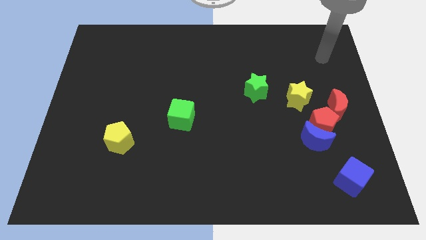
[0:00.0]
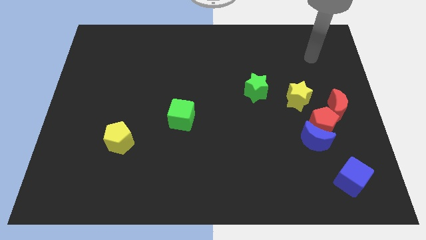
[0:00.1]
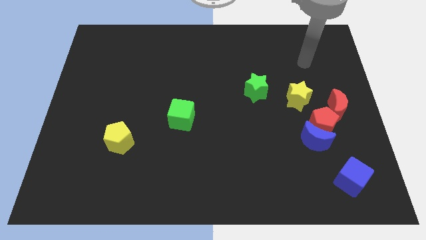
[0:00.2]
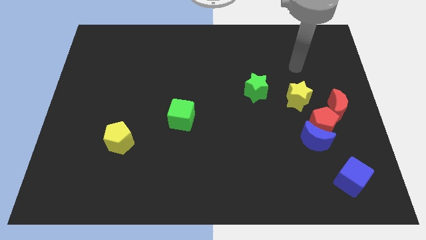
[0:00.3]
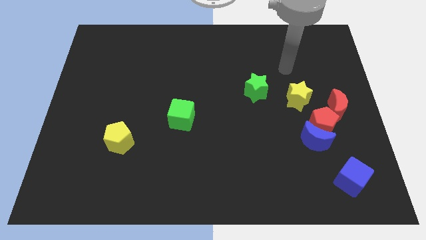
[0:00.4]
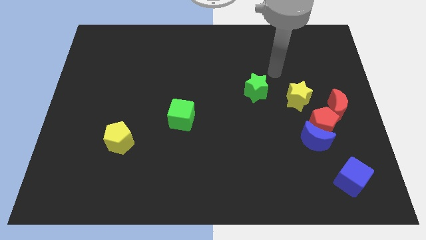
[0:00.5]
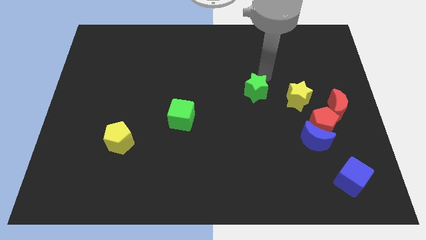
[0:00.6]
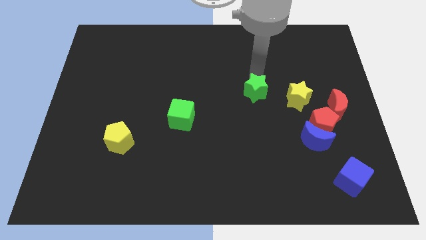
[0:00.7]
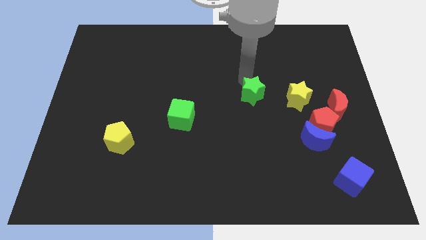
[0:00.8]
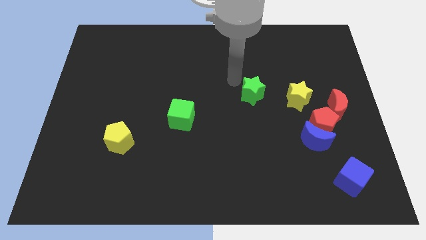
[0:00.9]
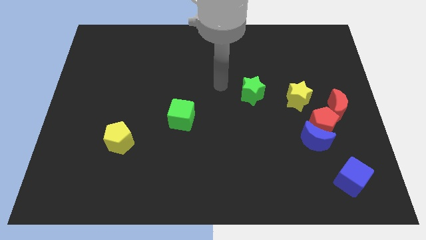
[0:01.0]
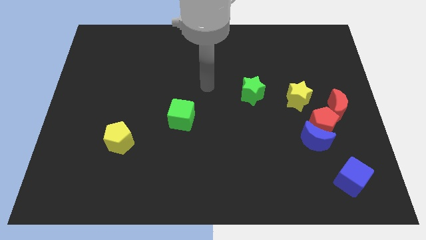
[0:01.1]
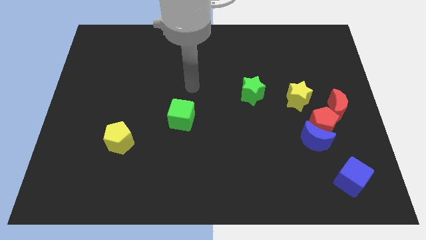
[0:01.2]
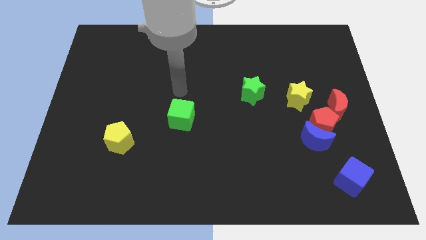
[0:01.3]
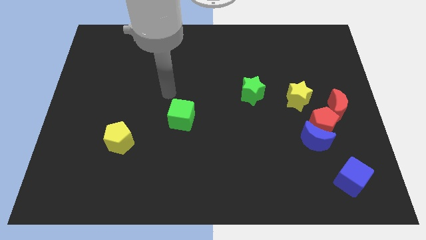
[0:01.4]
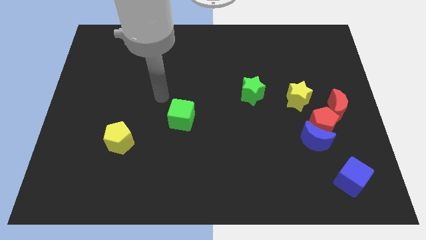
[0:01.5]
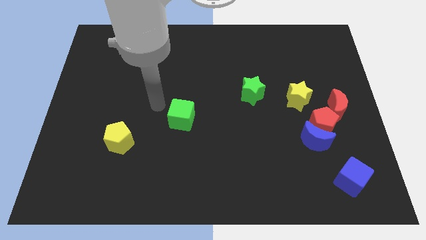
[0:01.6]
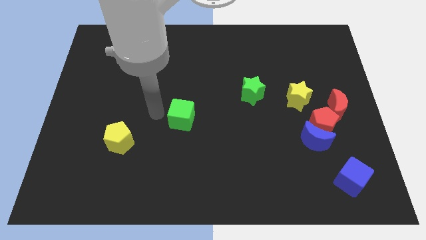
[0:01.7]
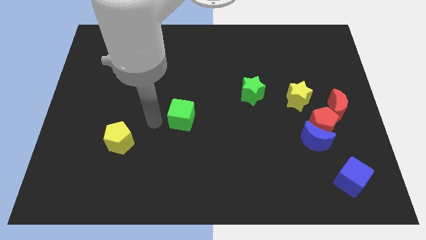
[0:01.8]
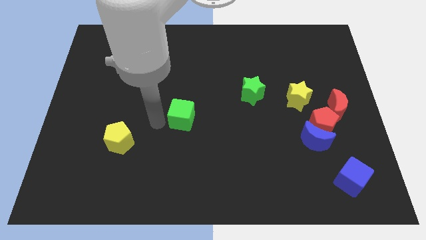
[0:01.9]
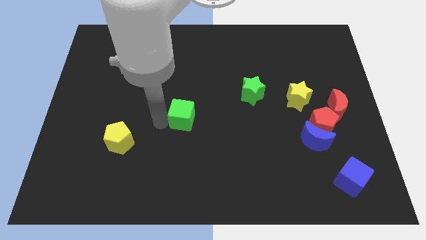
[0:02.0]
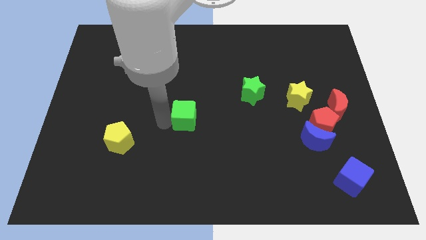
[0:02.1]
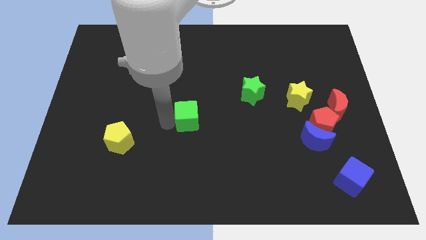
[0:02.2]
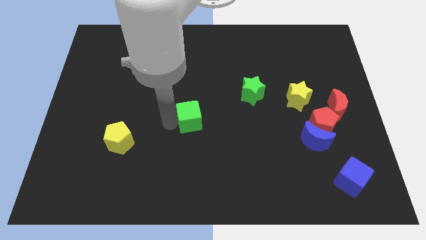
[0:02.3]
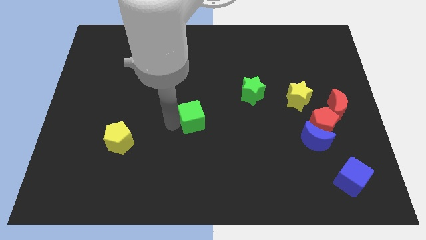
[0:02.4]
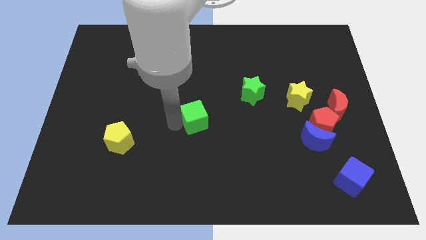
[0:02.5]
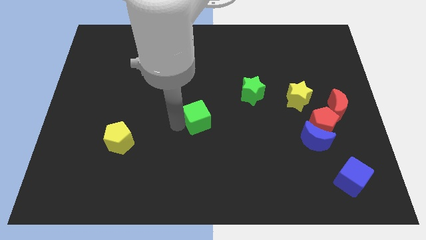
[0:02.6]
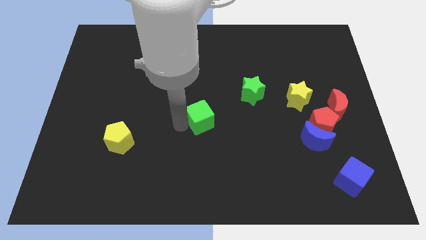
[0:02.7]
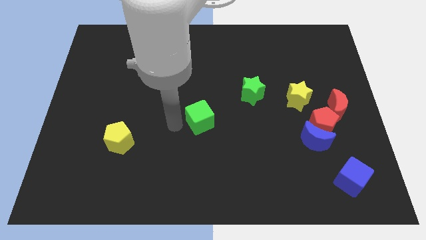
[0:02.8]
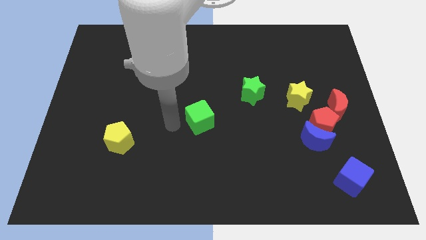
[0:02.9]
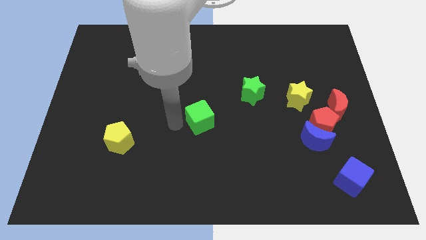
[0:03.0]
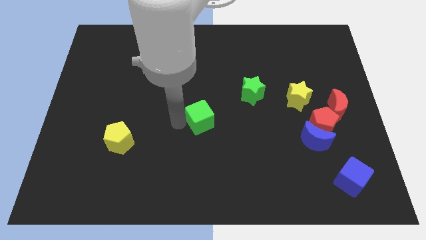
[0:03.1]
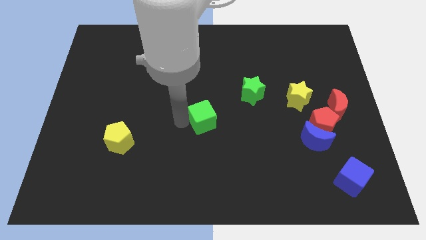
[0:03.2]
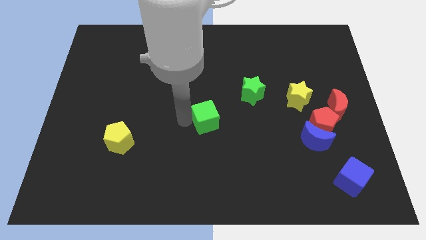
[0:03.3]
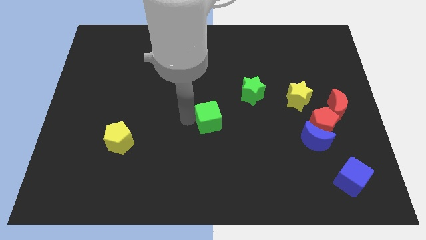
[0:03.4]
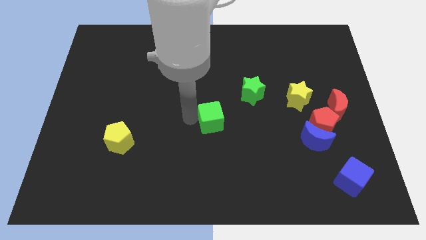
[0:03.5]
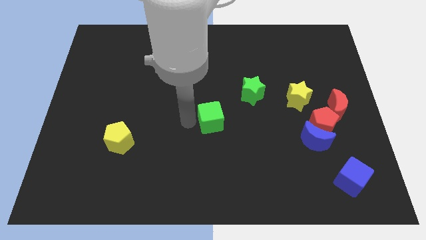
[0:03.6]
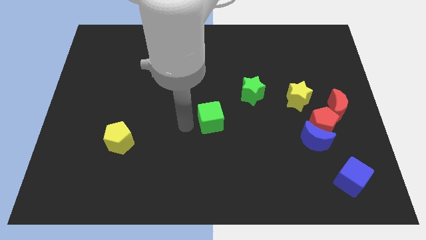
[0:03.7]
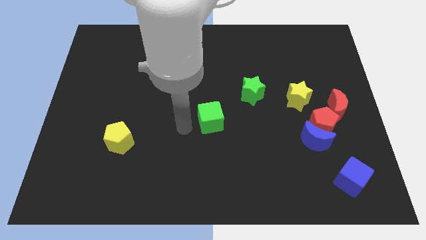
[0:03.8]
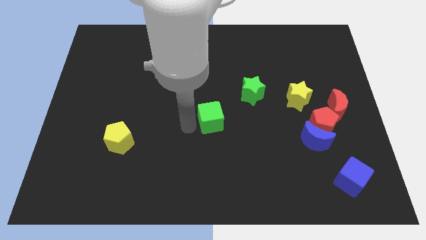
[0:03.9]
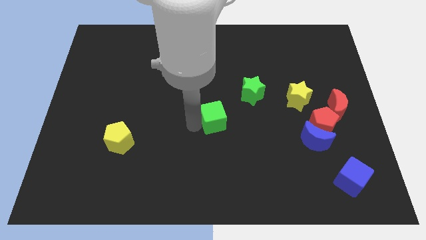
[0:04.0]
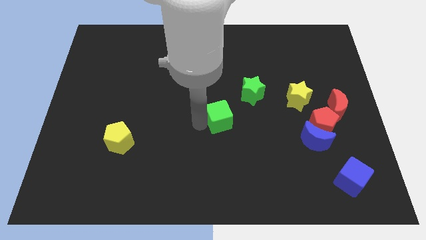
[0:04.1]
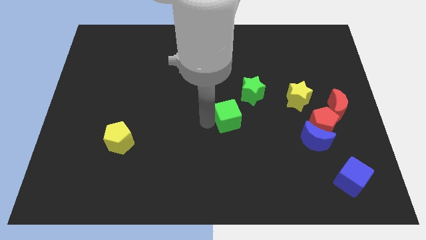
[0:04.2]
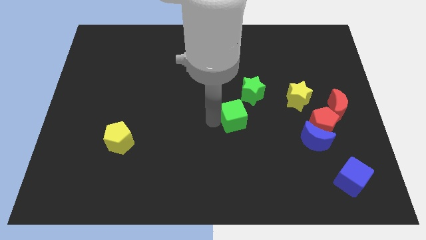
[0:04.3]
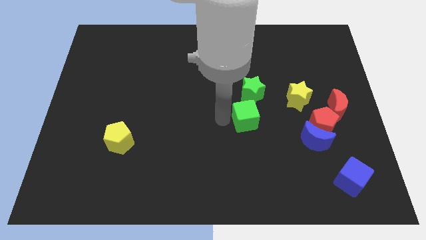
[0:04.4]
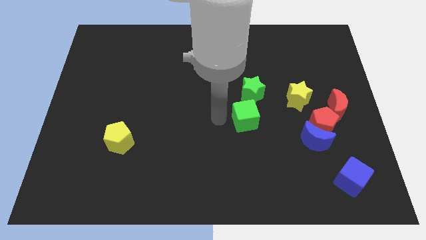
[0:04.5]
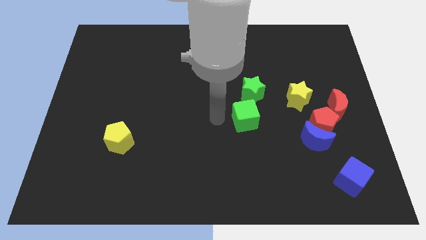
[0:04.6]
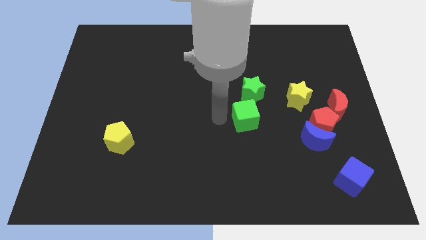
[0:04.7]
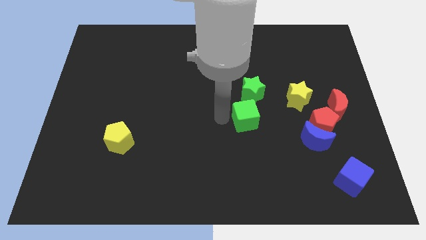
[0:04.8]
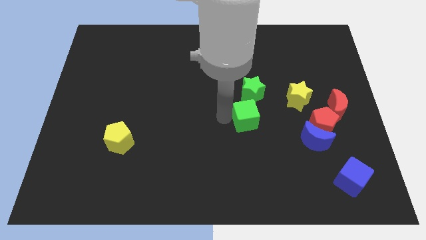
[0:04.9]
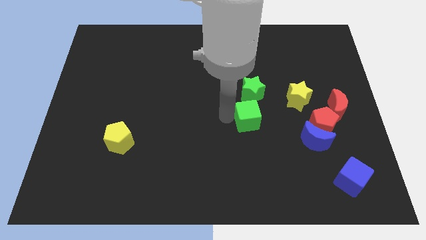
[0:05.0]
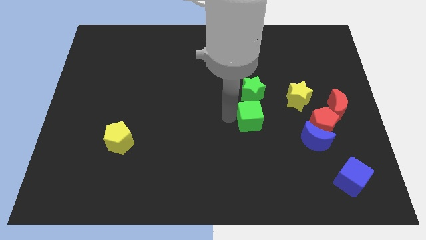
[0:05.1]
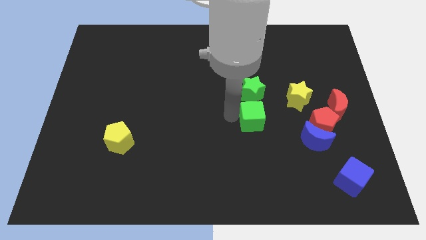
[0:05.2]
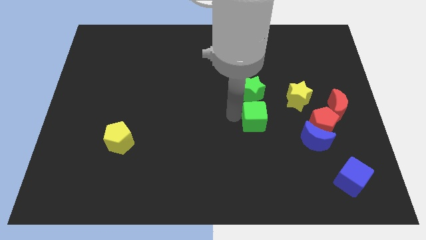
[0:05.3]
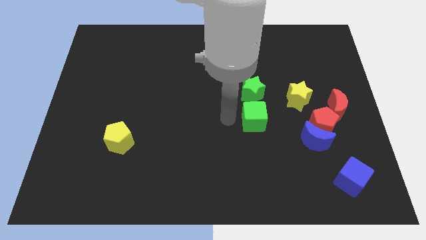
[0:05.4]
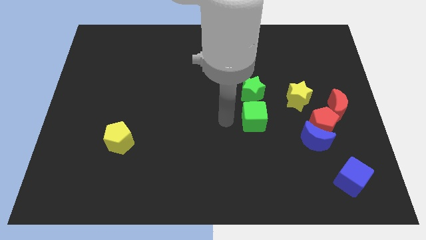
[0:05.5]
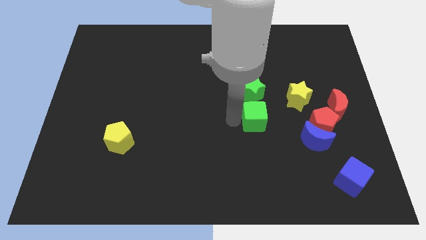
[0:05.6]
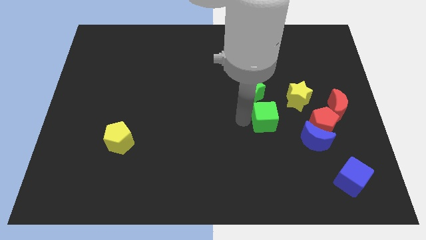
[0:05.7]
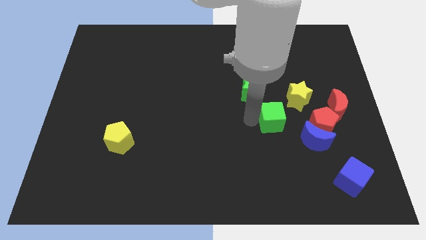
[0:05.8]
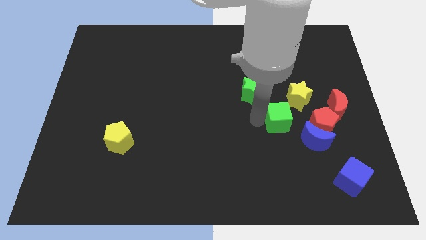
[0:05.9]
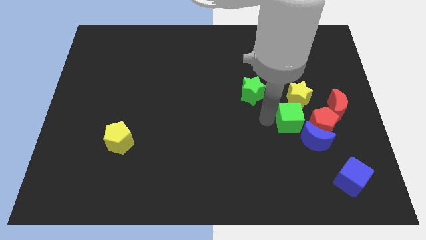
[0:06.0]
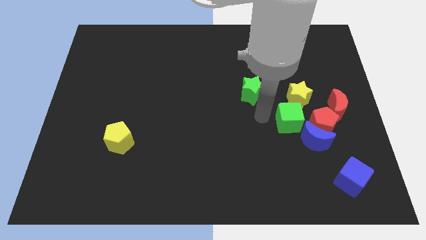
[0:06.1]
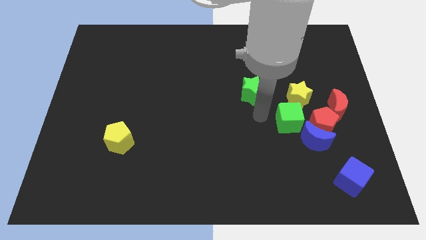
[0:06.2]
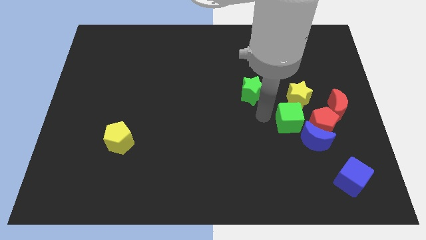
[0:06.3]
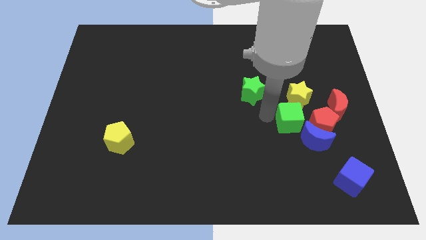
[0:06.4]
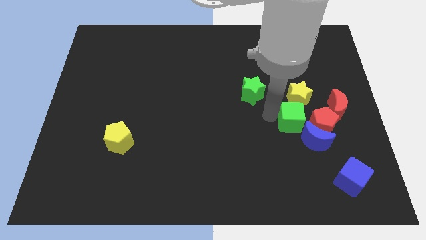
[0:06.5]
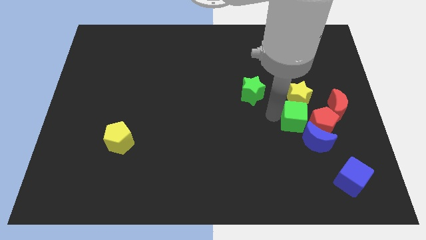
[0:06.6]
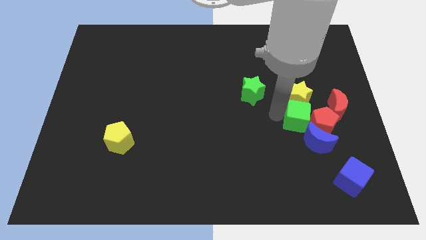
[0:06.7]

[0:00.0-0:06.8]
move the green cube close to the red pentagon
